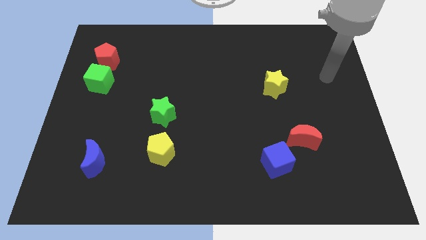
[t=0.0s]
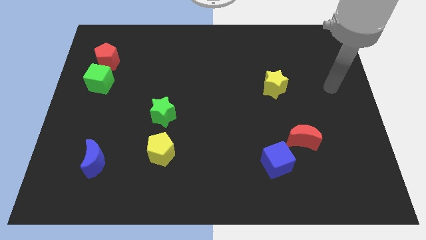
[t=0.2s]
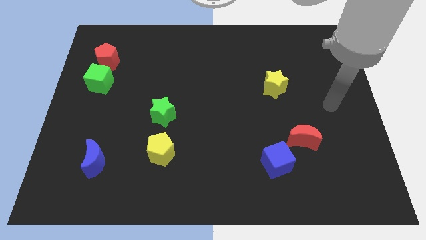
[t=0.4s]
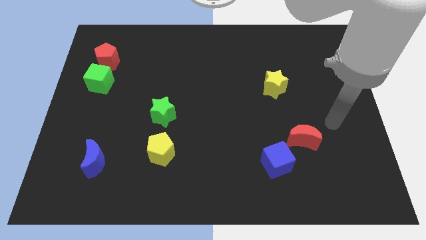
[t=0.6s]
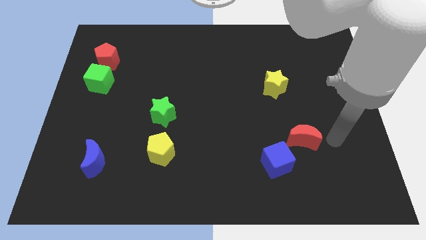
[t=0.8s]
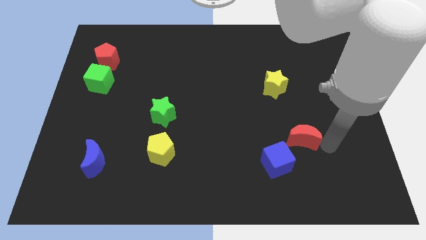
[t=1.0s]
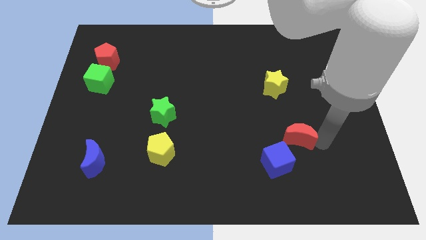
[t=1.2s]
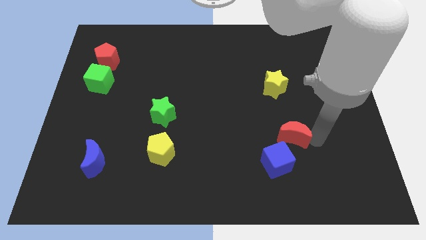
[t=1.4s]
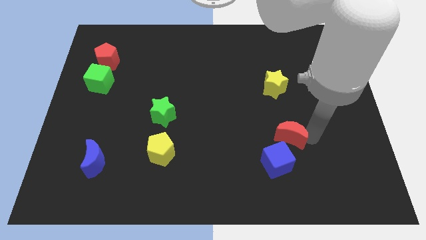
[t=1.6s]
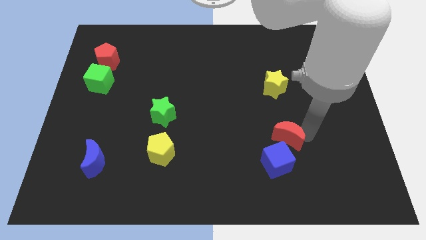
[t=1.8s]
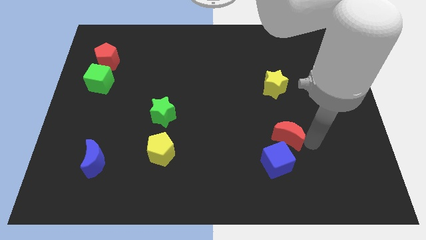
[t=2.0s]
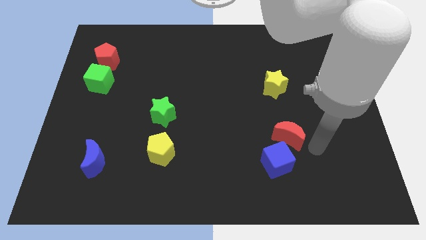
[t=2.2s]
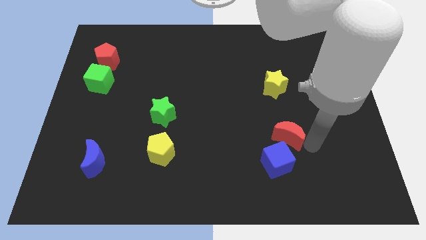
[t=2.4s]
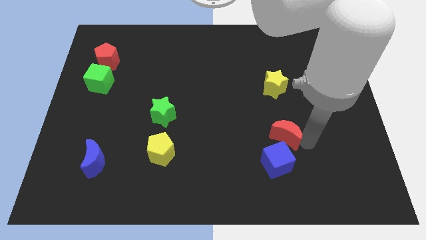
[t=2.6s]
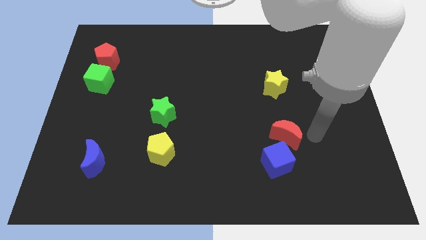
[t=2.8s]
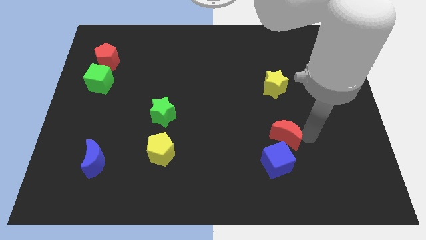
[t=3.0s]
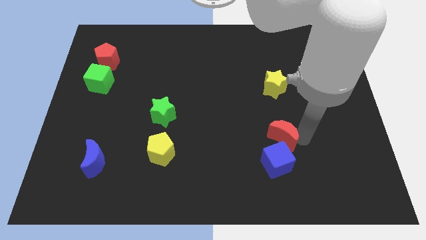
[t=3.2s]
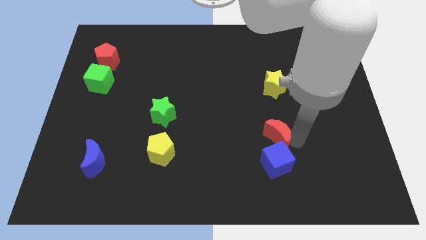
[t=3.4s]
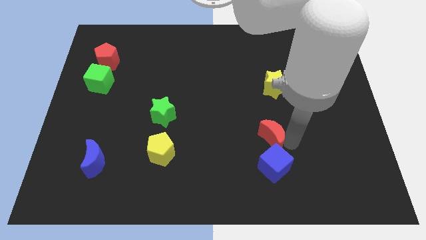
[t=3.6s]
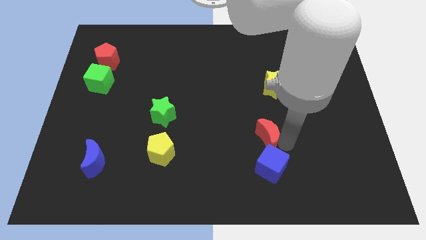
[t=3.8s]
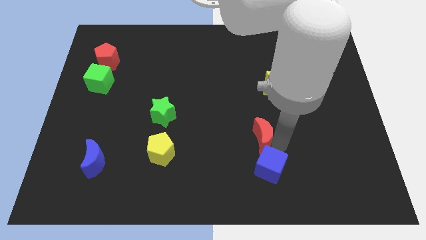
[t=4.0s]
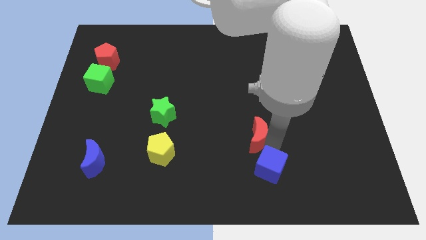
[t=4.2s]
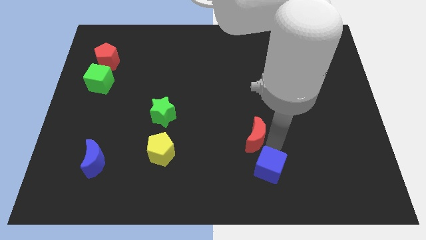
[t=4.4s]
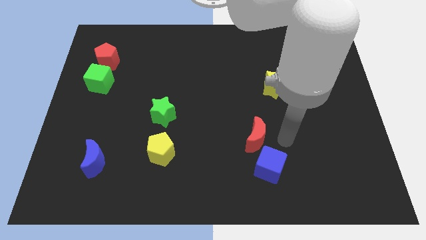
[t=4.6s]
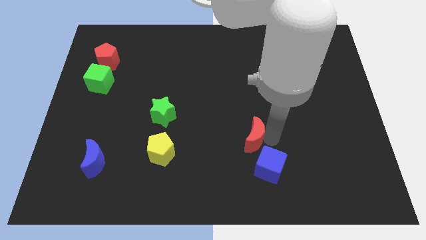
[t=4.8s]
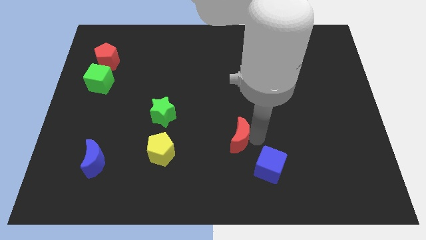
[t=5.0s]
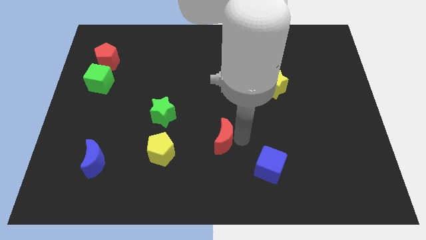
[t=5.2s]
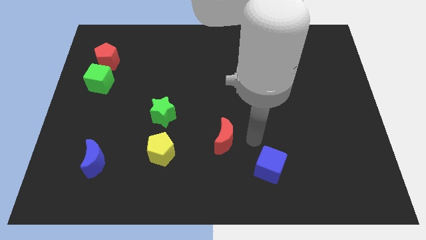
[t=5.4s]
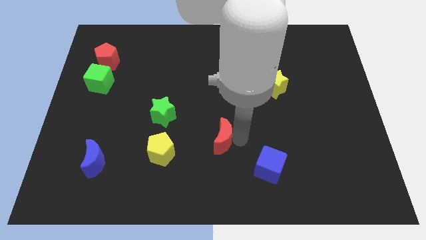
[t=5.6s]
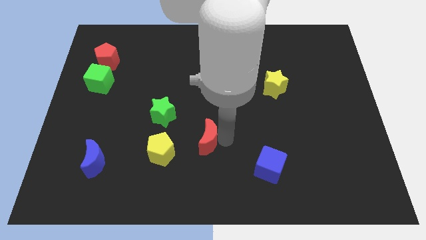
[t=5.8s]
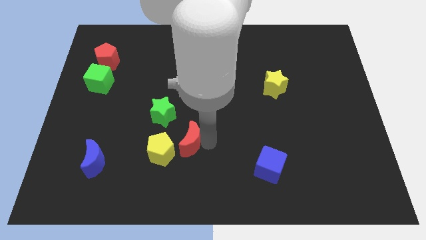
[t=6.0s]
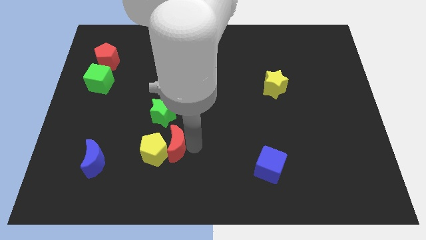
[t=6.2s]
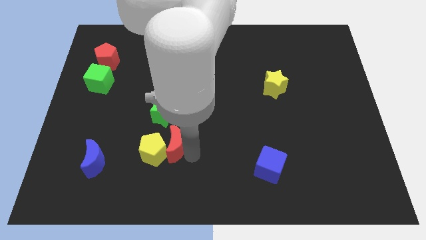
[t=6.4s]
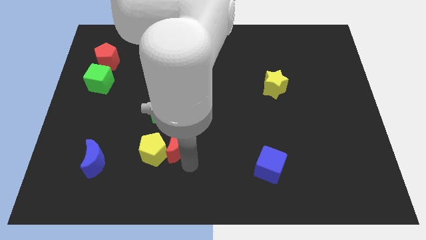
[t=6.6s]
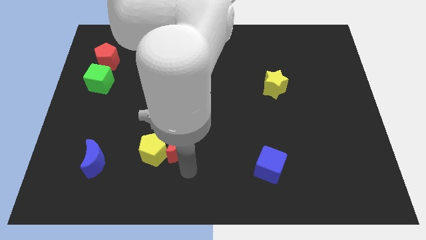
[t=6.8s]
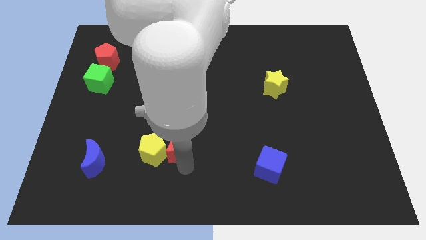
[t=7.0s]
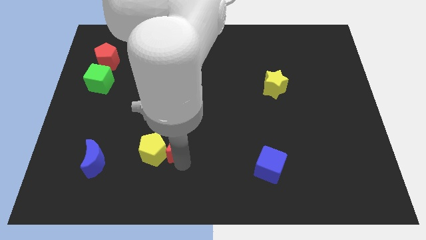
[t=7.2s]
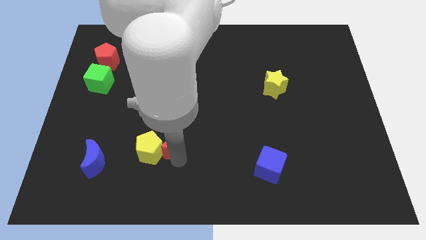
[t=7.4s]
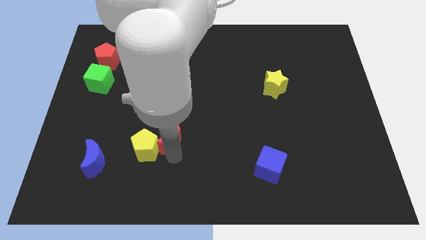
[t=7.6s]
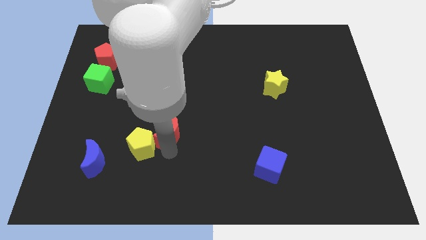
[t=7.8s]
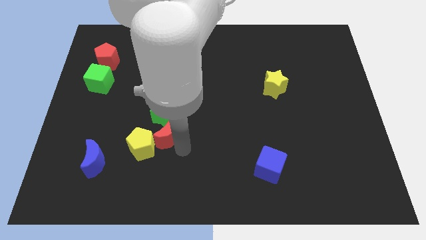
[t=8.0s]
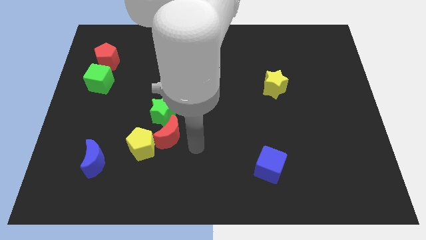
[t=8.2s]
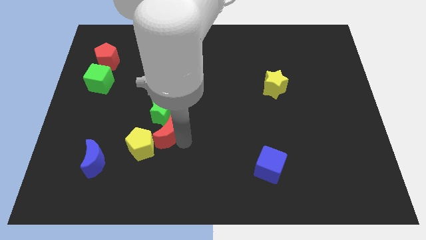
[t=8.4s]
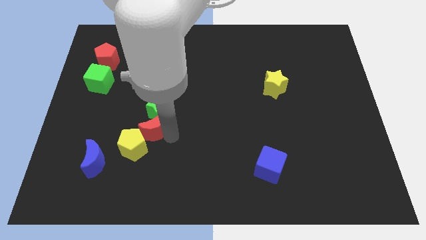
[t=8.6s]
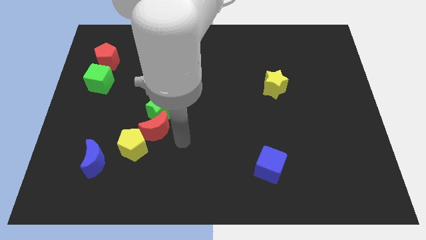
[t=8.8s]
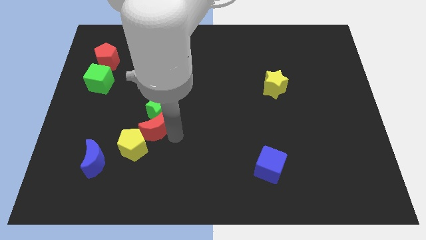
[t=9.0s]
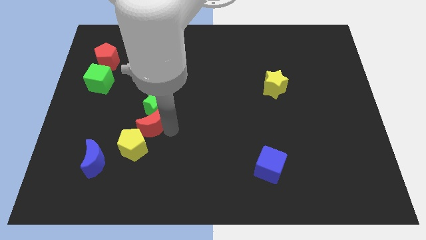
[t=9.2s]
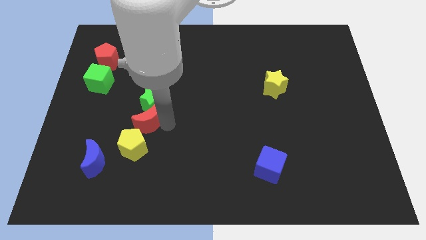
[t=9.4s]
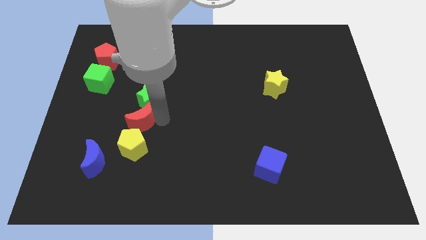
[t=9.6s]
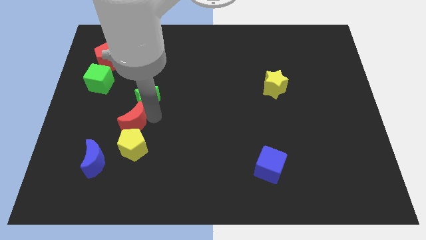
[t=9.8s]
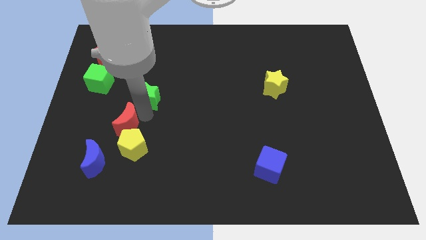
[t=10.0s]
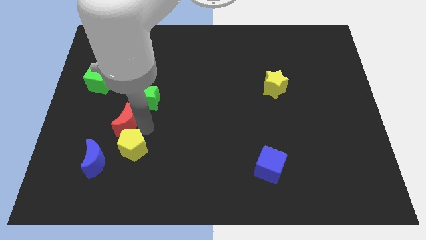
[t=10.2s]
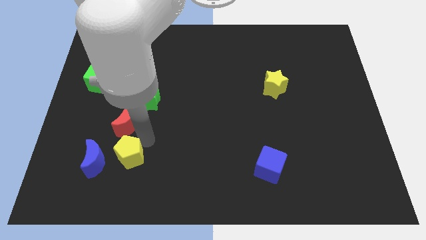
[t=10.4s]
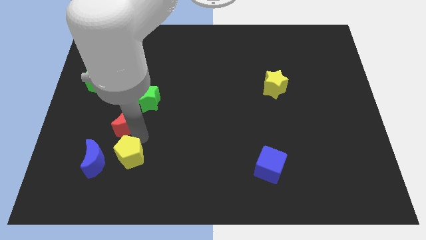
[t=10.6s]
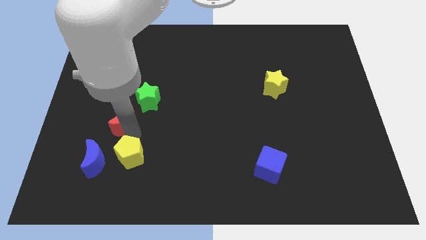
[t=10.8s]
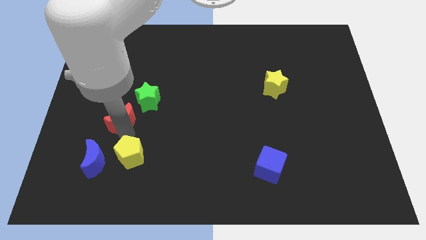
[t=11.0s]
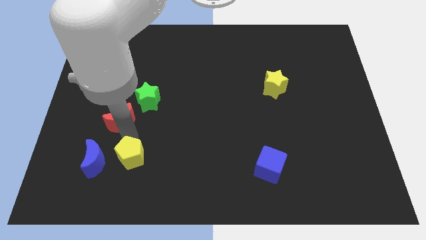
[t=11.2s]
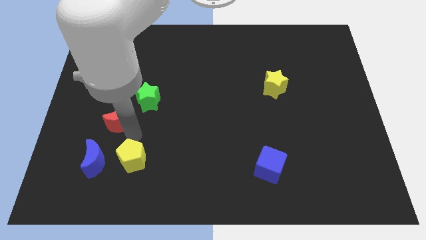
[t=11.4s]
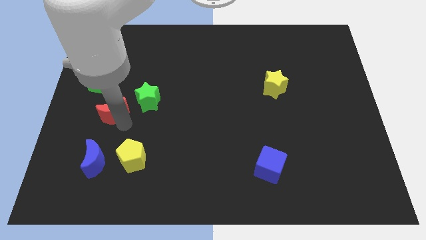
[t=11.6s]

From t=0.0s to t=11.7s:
move the red moon to the left side of the green star

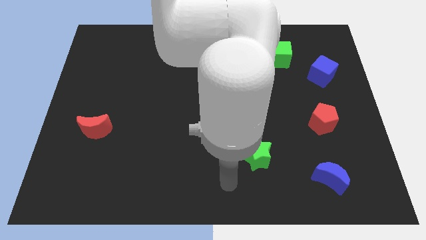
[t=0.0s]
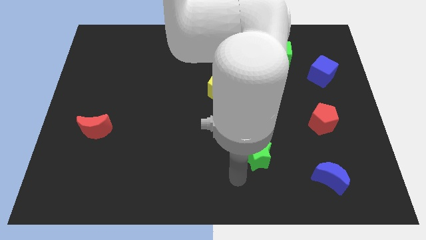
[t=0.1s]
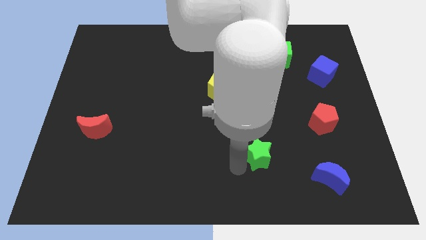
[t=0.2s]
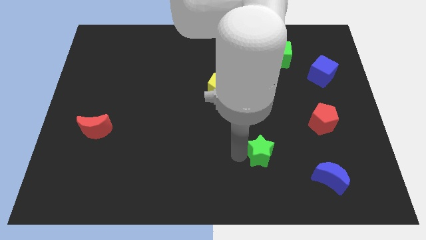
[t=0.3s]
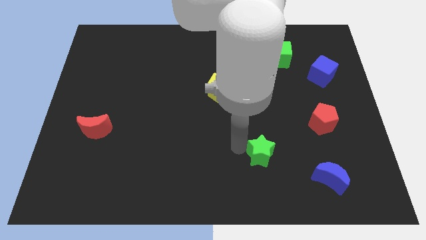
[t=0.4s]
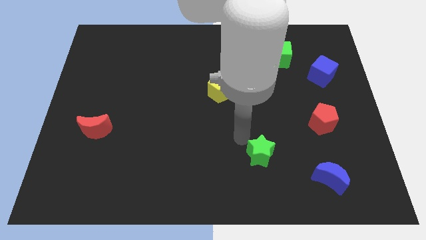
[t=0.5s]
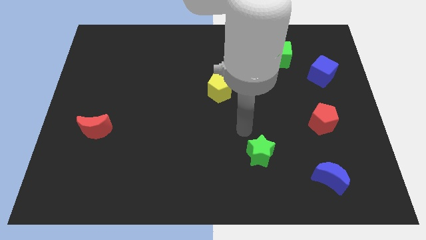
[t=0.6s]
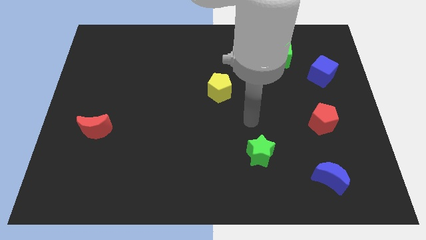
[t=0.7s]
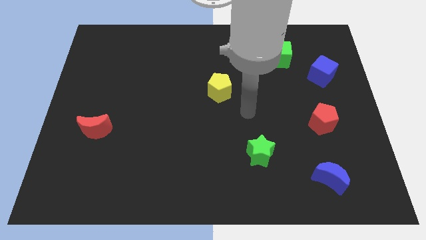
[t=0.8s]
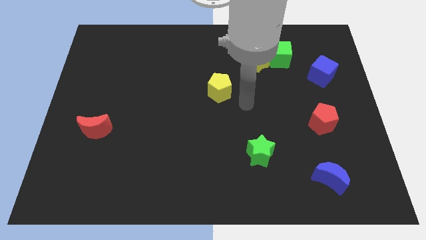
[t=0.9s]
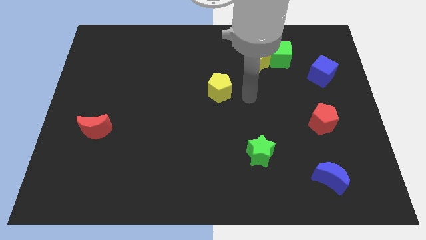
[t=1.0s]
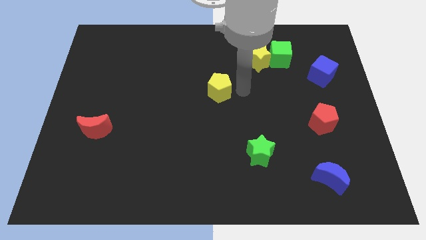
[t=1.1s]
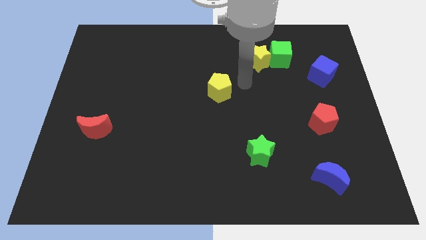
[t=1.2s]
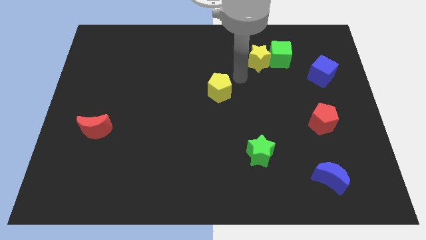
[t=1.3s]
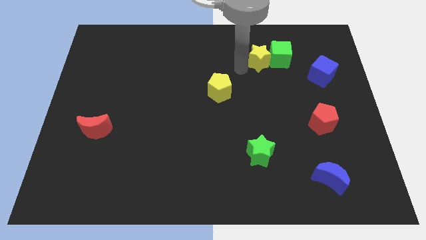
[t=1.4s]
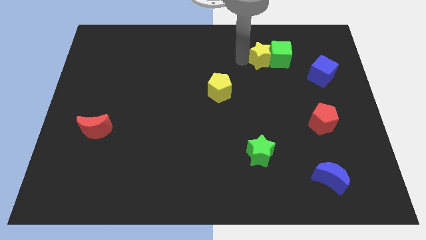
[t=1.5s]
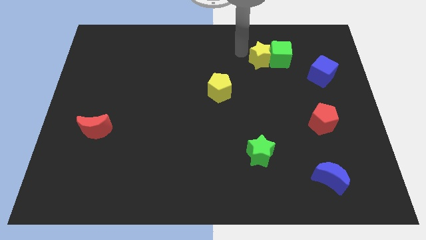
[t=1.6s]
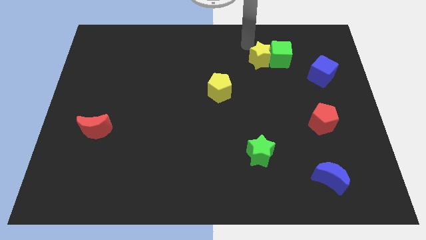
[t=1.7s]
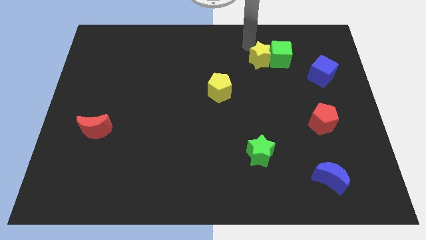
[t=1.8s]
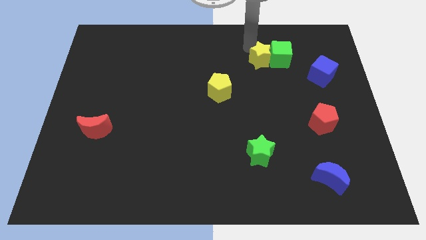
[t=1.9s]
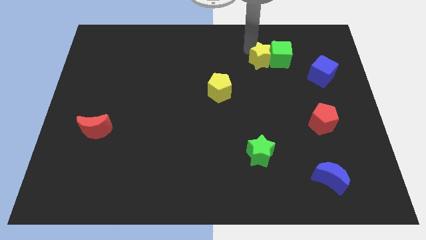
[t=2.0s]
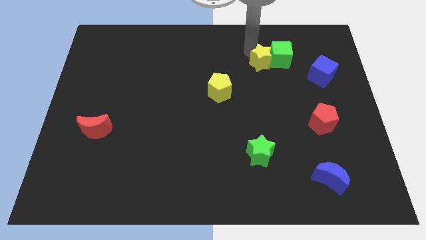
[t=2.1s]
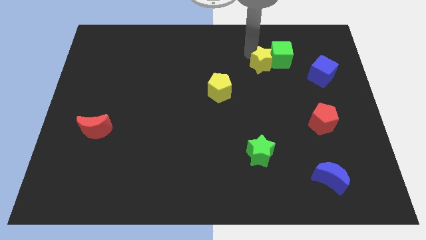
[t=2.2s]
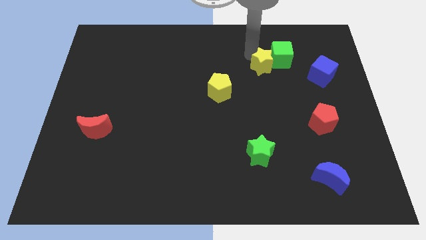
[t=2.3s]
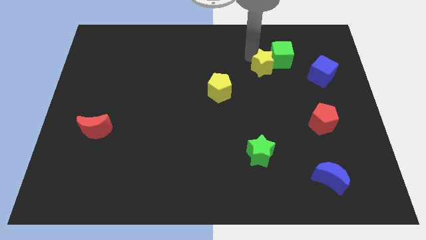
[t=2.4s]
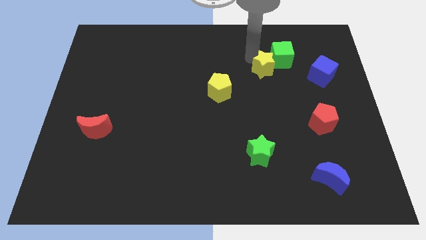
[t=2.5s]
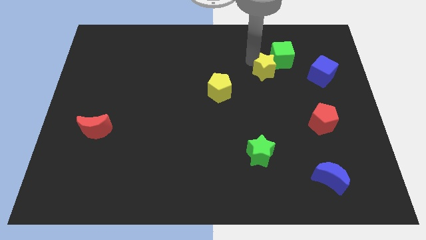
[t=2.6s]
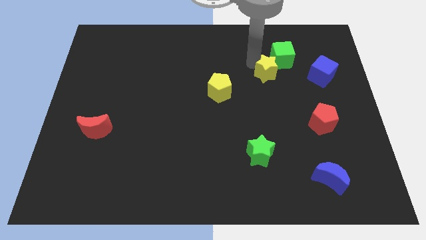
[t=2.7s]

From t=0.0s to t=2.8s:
move the yellow star below the green cube
